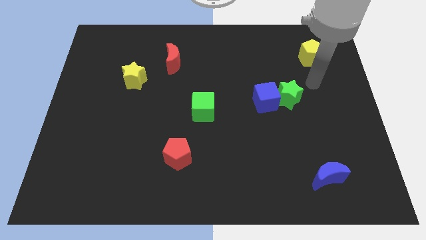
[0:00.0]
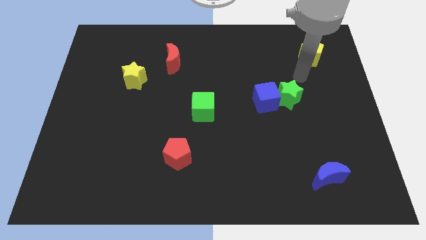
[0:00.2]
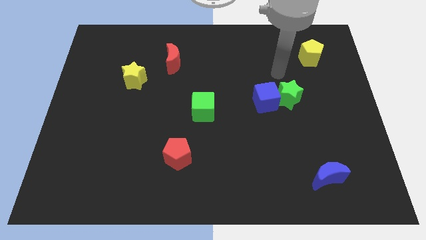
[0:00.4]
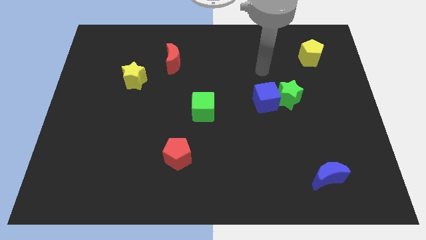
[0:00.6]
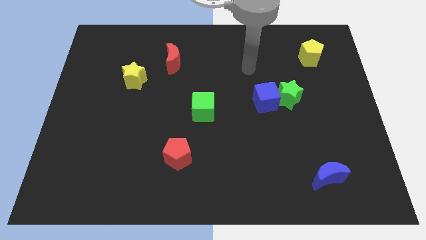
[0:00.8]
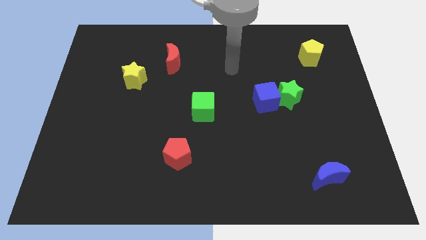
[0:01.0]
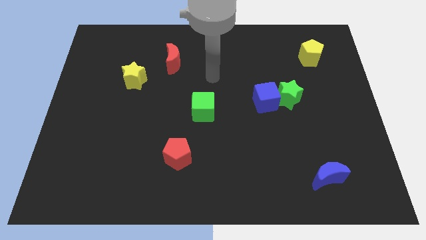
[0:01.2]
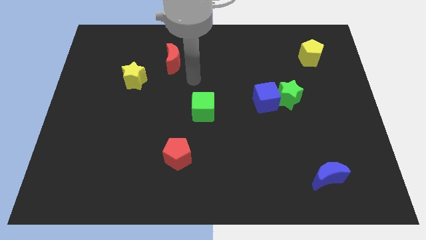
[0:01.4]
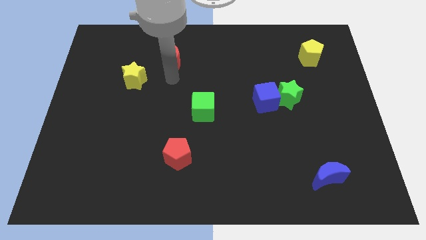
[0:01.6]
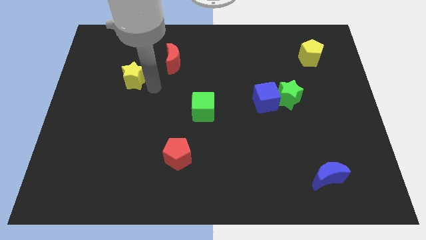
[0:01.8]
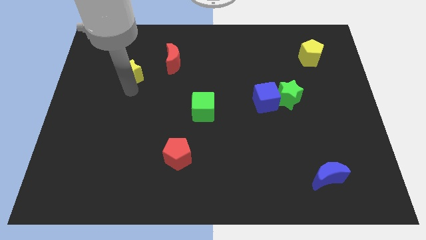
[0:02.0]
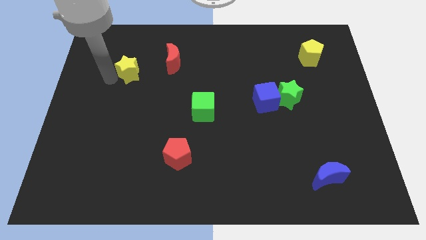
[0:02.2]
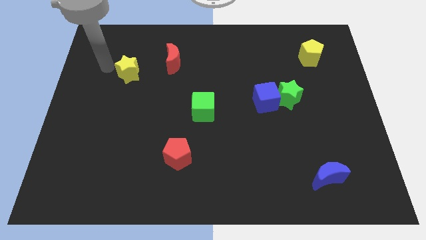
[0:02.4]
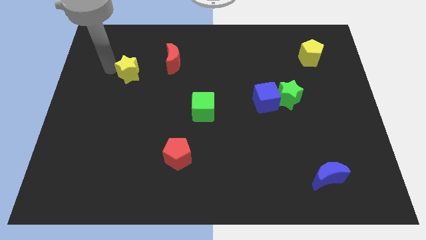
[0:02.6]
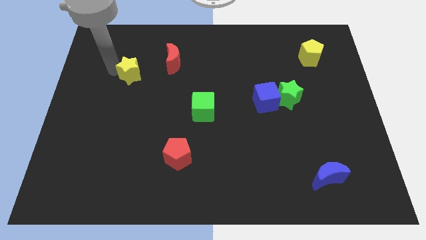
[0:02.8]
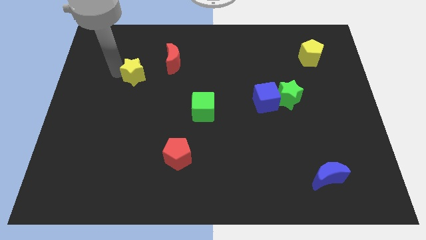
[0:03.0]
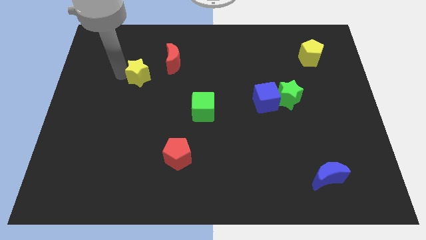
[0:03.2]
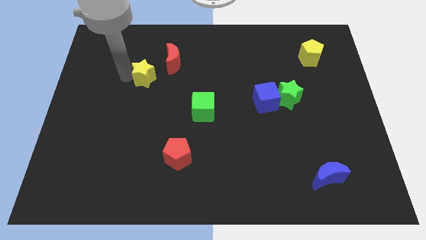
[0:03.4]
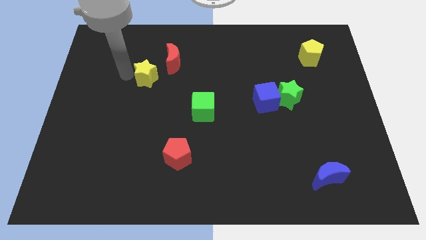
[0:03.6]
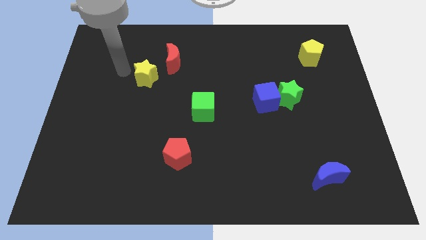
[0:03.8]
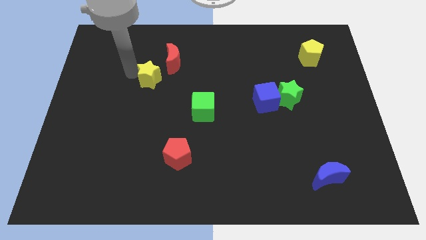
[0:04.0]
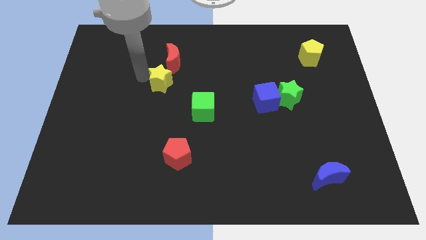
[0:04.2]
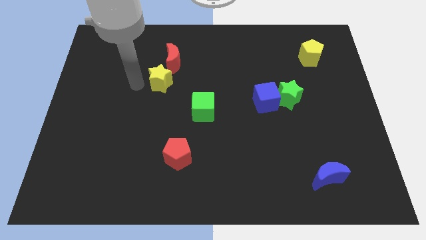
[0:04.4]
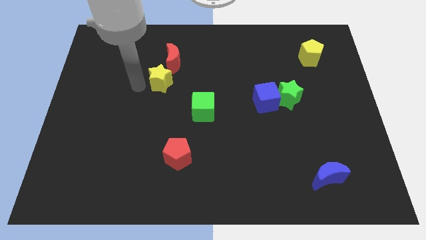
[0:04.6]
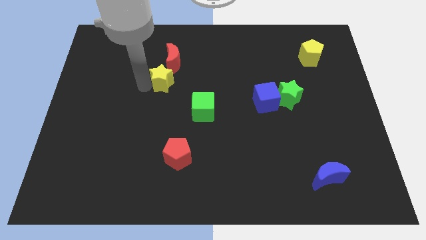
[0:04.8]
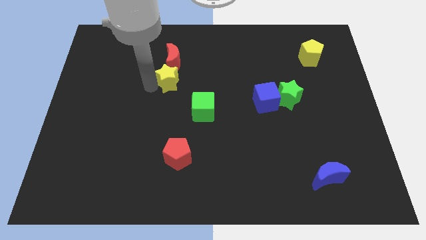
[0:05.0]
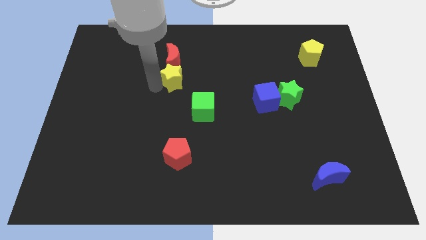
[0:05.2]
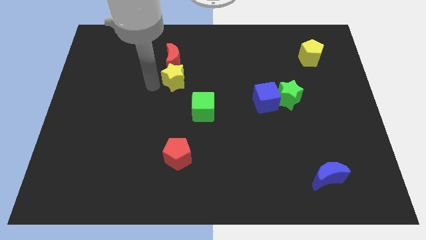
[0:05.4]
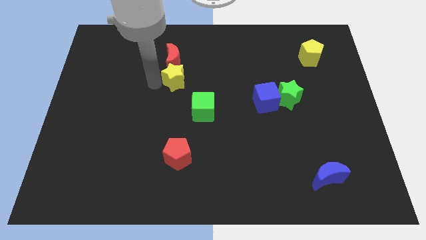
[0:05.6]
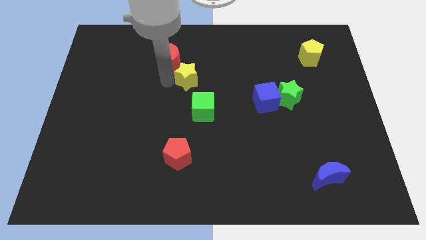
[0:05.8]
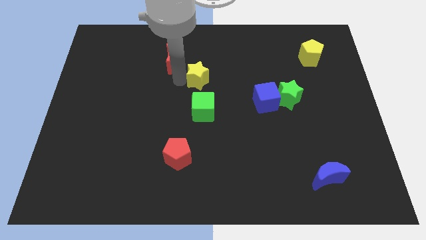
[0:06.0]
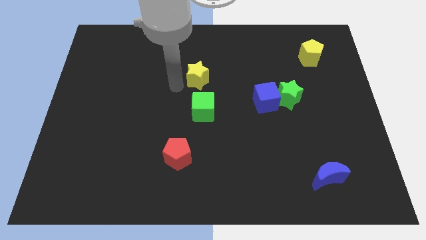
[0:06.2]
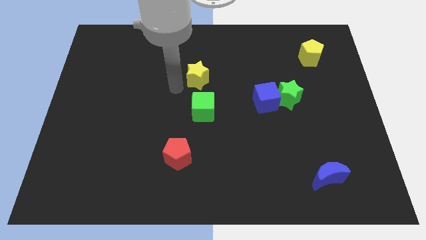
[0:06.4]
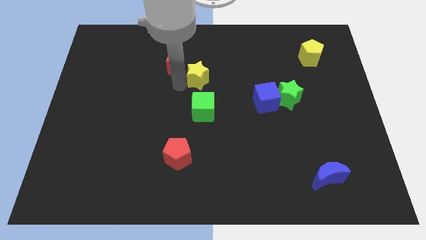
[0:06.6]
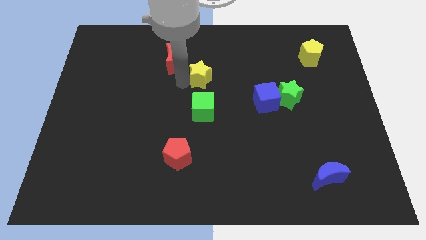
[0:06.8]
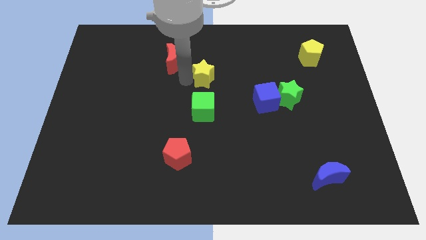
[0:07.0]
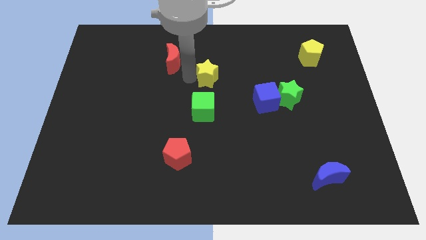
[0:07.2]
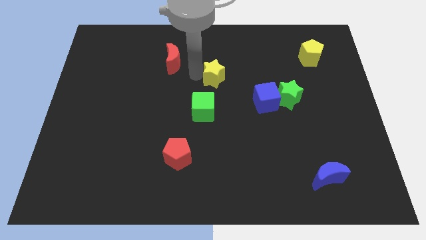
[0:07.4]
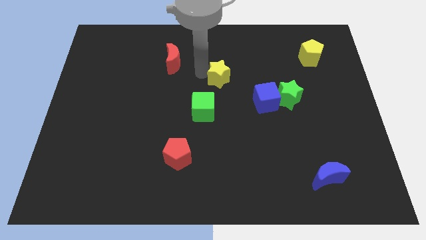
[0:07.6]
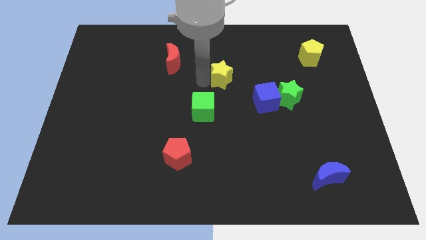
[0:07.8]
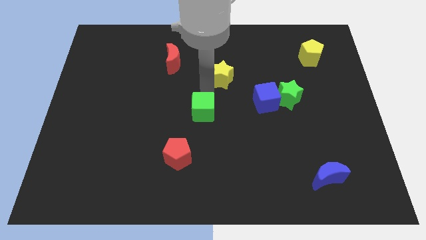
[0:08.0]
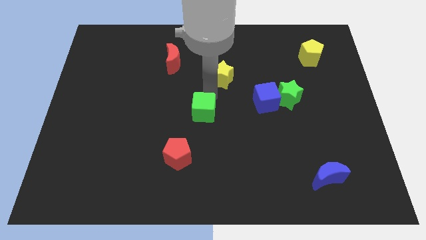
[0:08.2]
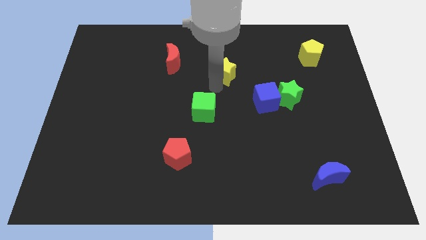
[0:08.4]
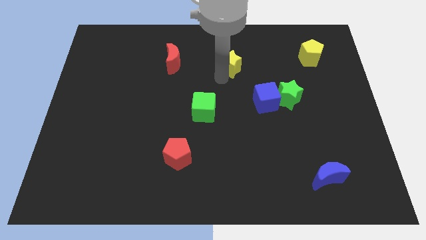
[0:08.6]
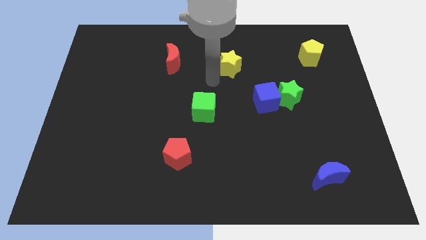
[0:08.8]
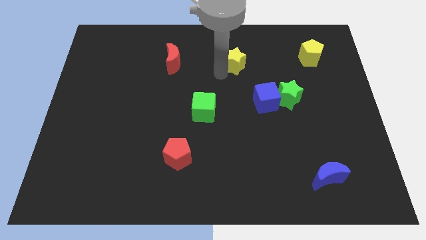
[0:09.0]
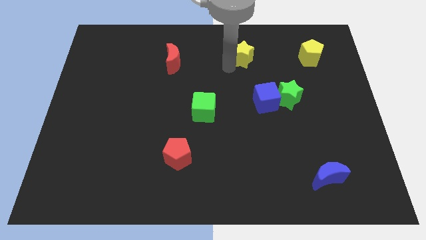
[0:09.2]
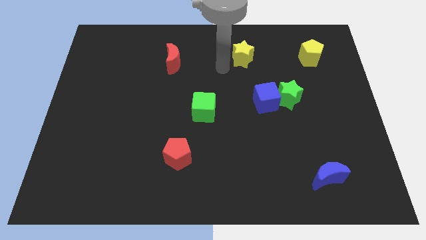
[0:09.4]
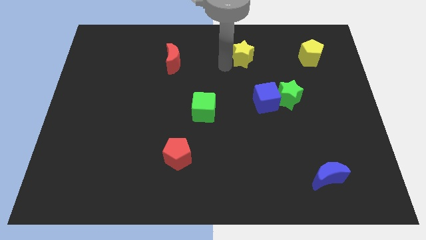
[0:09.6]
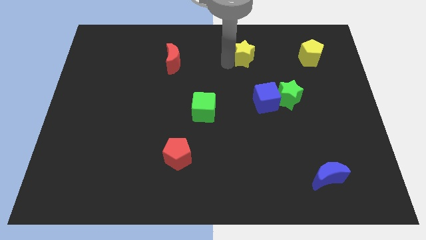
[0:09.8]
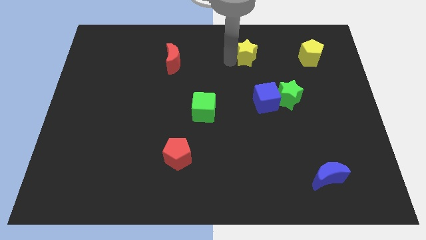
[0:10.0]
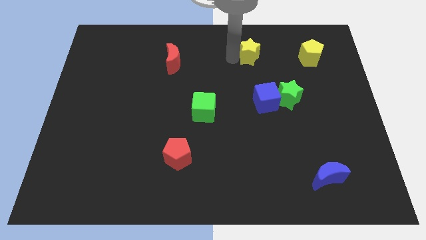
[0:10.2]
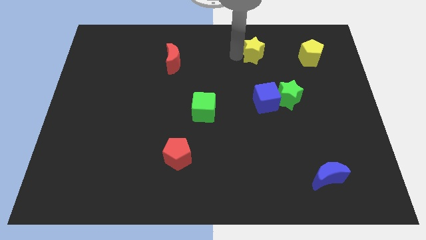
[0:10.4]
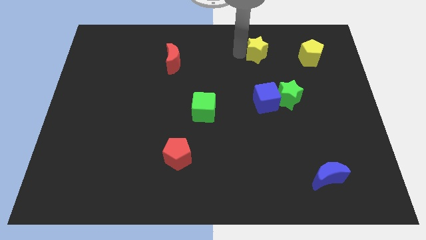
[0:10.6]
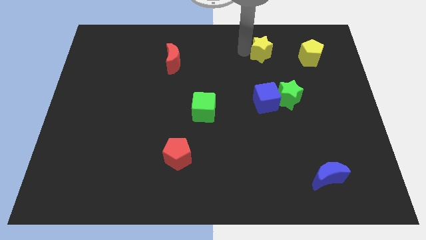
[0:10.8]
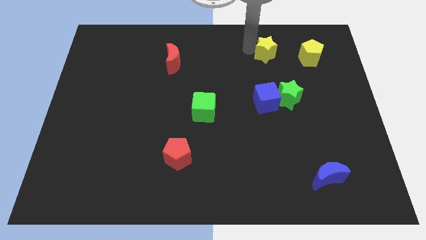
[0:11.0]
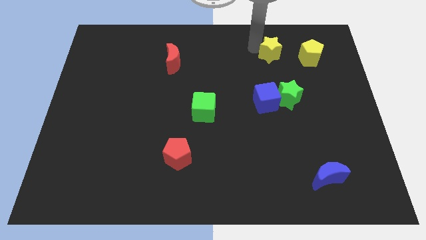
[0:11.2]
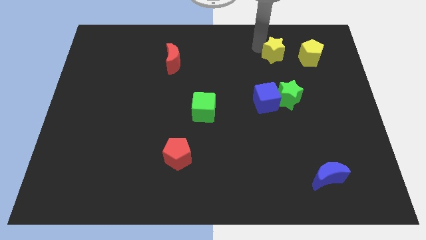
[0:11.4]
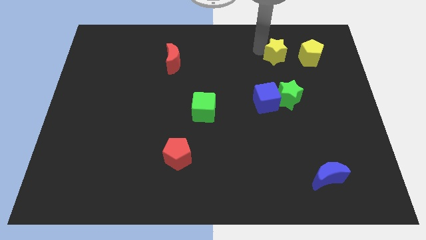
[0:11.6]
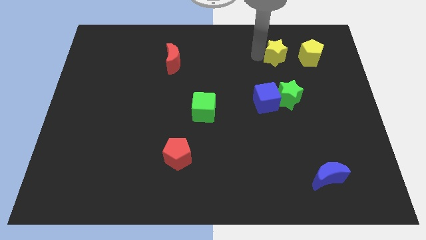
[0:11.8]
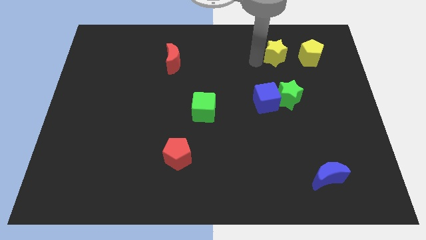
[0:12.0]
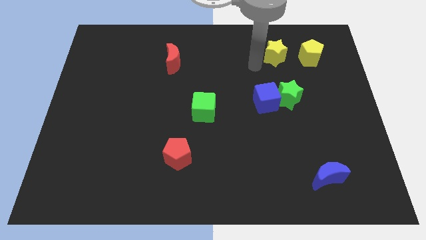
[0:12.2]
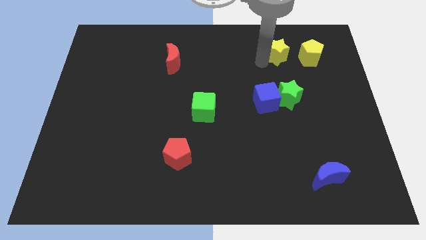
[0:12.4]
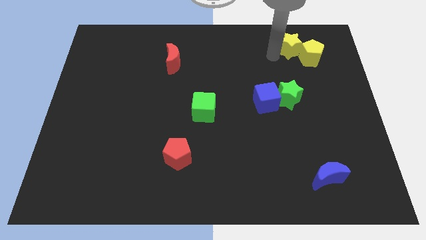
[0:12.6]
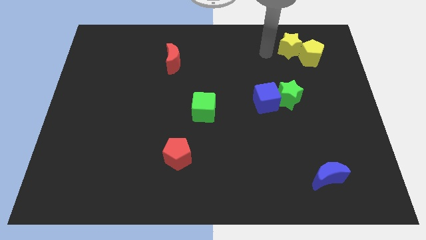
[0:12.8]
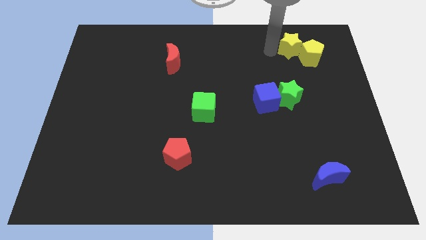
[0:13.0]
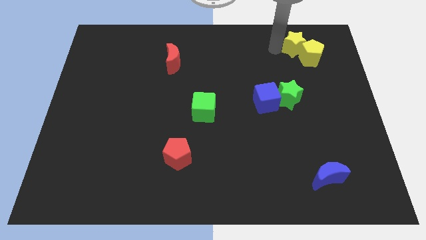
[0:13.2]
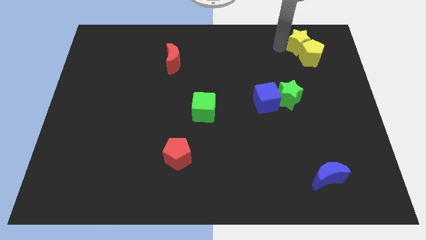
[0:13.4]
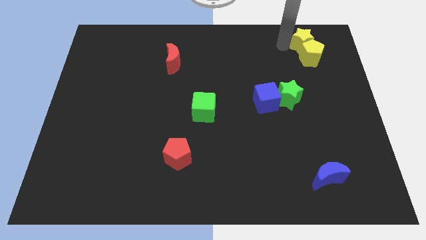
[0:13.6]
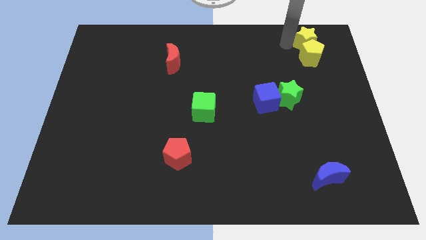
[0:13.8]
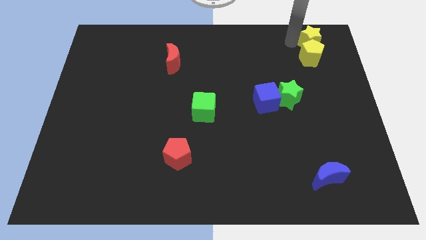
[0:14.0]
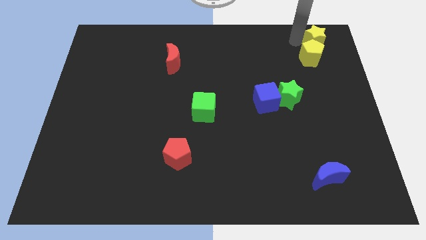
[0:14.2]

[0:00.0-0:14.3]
push the yellow star to the upper right corner
